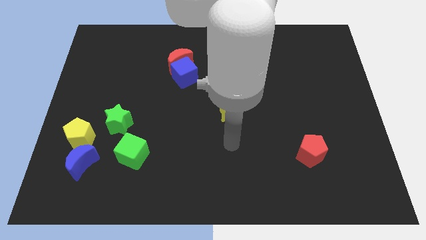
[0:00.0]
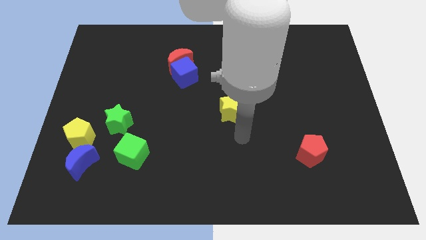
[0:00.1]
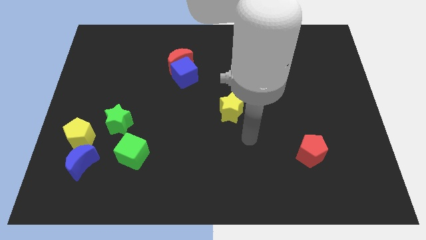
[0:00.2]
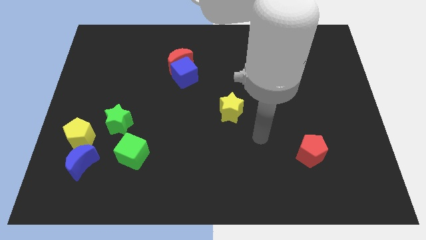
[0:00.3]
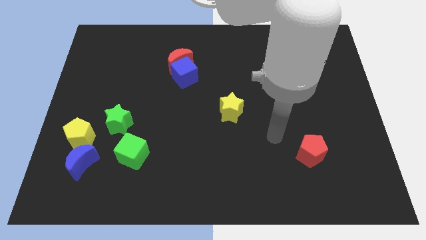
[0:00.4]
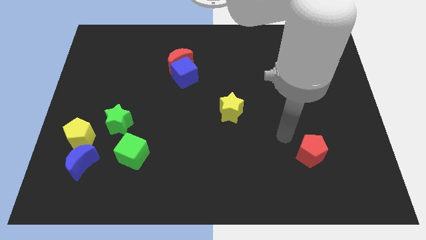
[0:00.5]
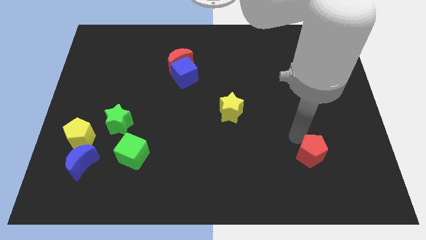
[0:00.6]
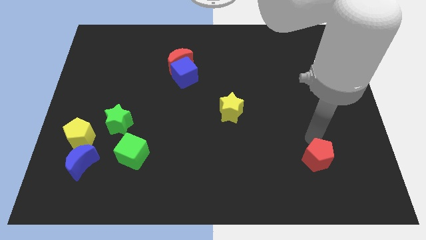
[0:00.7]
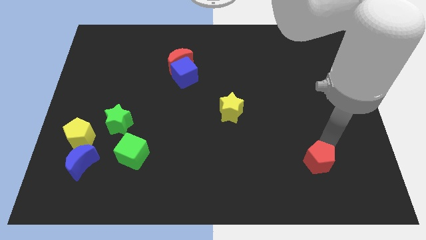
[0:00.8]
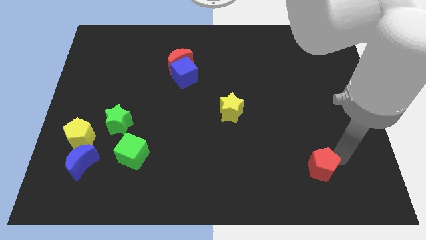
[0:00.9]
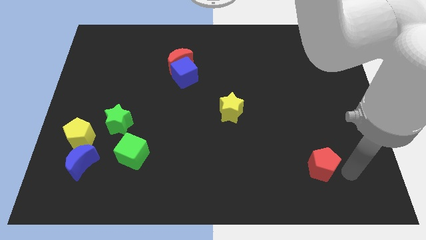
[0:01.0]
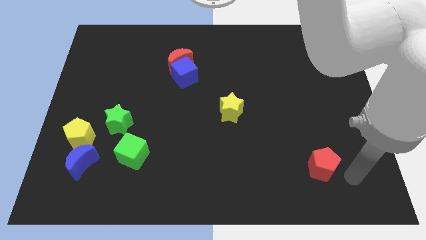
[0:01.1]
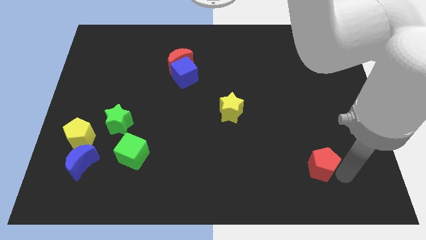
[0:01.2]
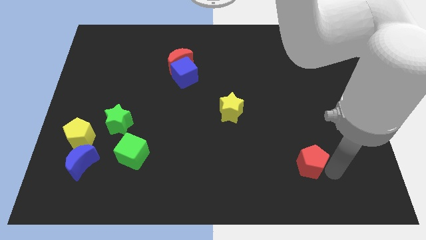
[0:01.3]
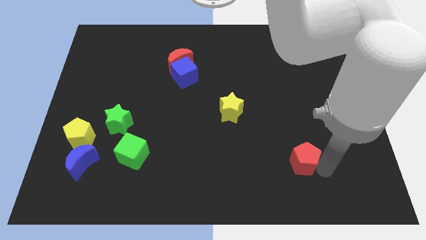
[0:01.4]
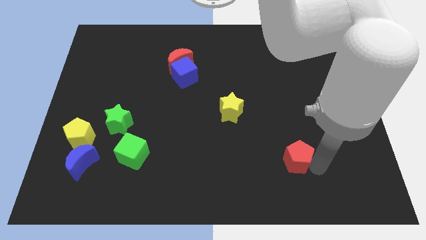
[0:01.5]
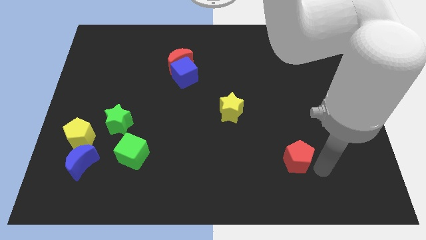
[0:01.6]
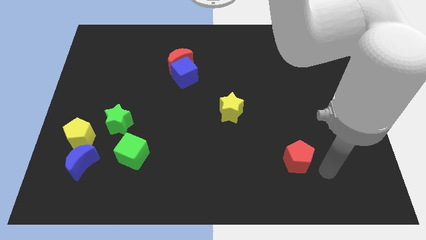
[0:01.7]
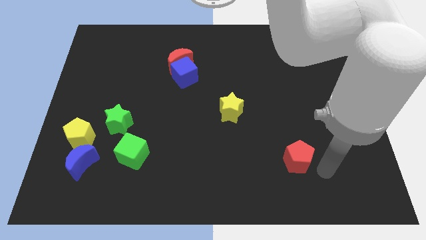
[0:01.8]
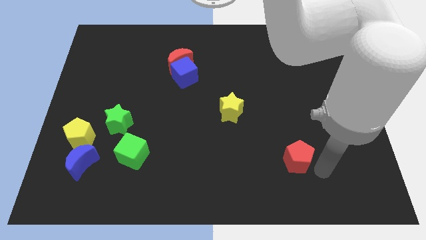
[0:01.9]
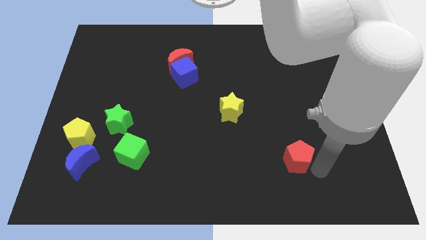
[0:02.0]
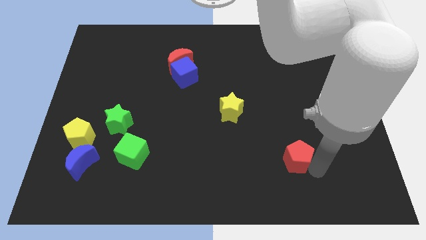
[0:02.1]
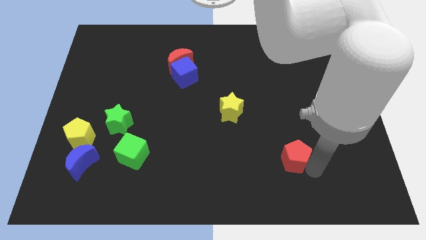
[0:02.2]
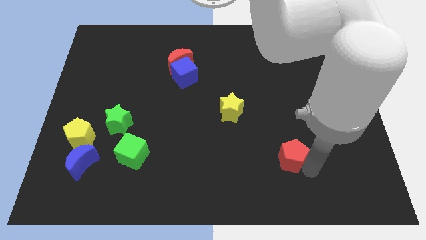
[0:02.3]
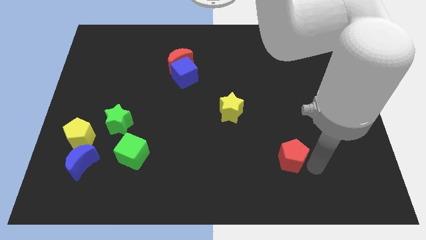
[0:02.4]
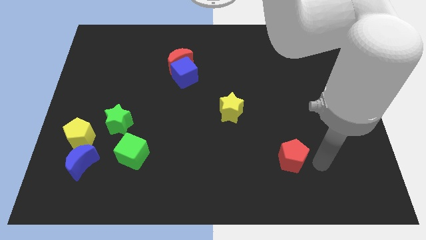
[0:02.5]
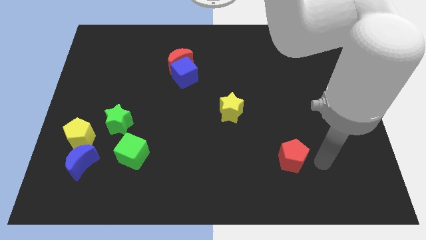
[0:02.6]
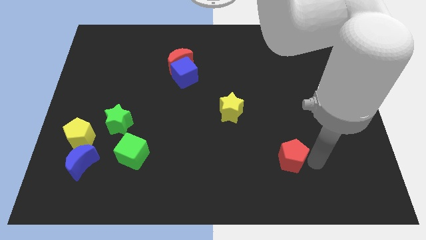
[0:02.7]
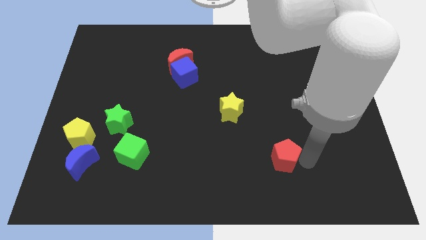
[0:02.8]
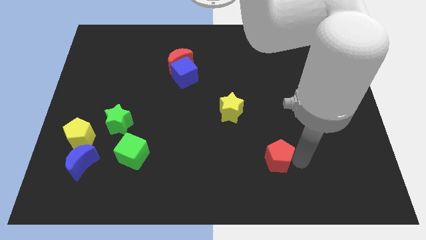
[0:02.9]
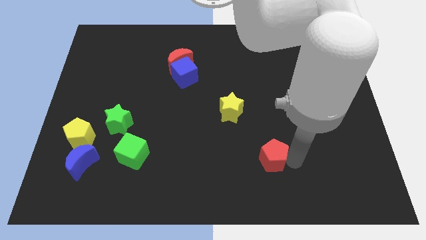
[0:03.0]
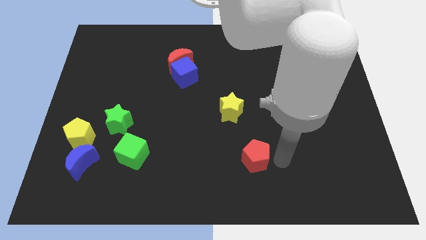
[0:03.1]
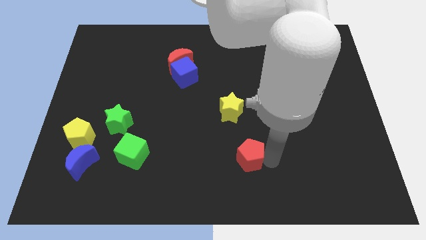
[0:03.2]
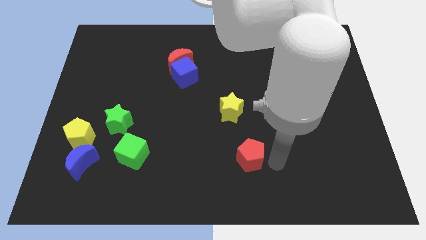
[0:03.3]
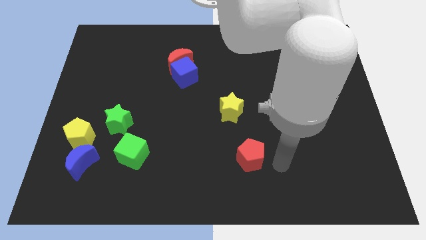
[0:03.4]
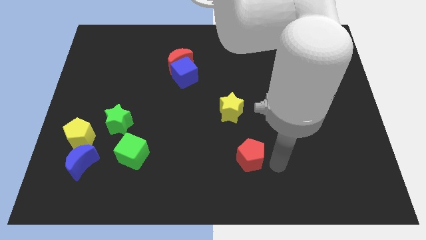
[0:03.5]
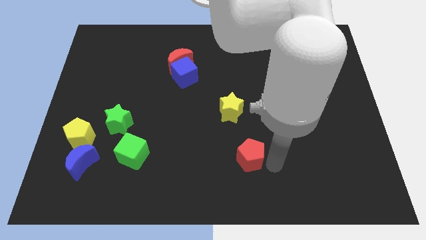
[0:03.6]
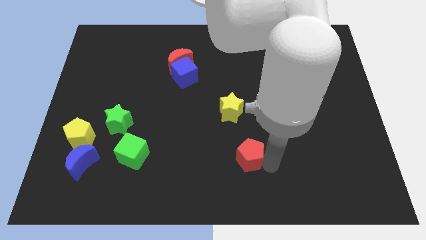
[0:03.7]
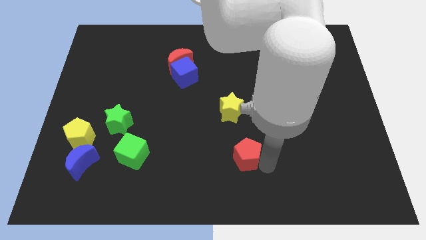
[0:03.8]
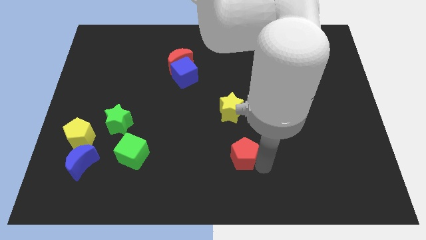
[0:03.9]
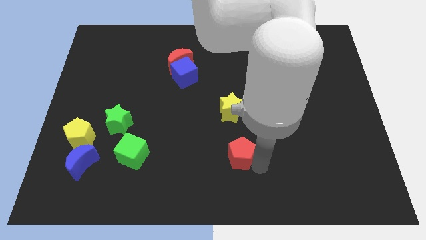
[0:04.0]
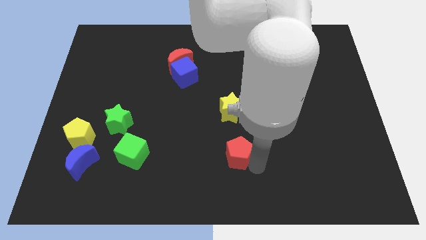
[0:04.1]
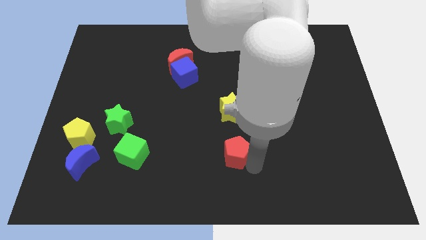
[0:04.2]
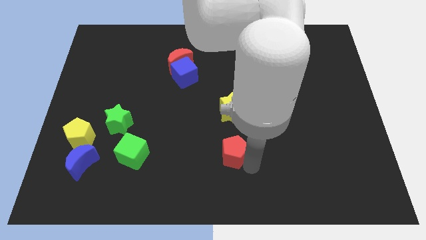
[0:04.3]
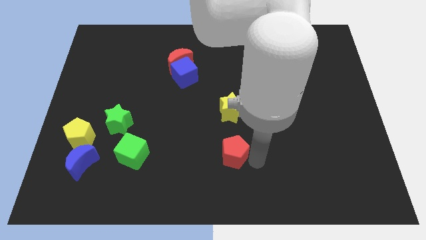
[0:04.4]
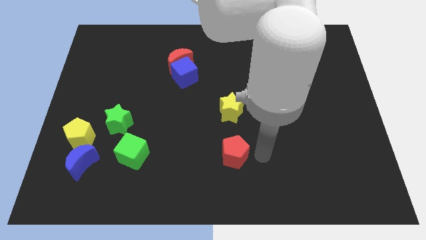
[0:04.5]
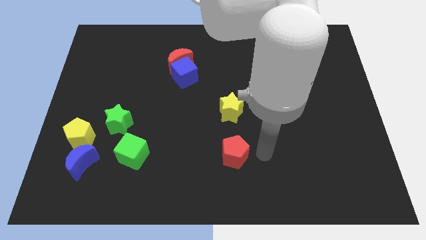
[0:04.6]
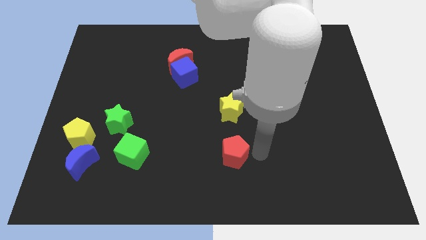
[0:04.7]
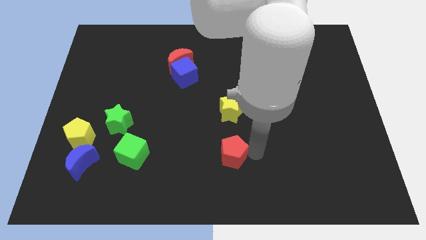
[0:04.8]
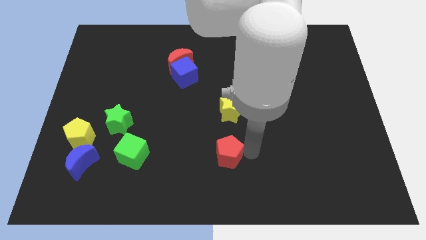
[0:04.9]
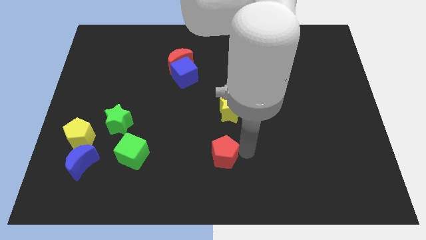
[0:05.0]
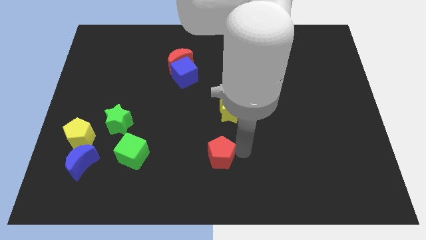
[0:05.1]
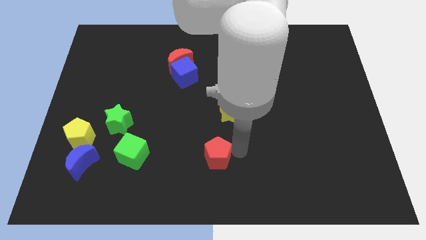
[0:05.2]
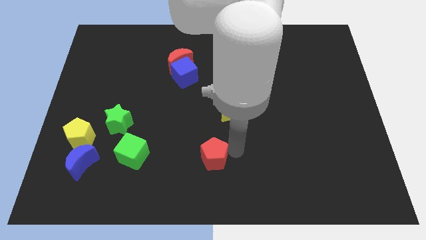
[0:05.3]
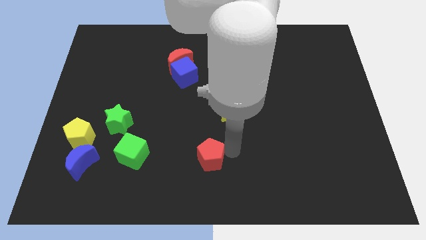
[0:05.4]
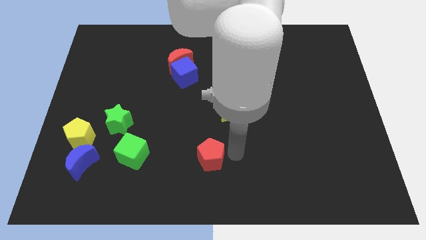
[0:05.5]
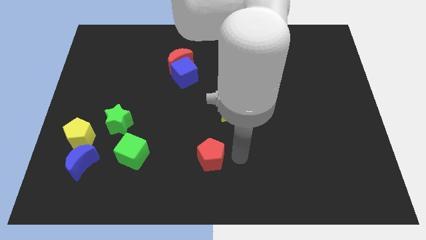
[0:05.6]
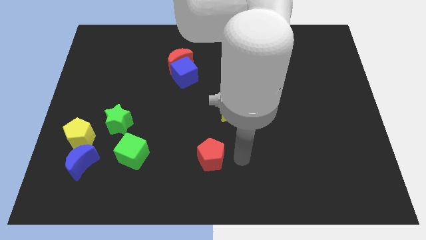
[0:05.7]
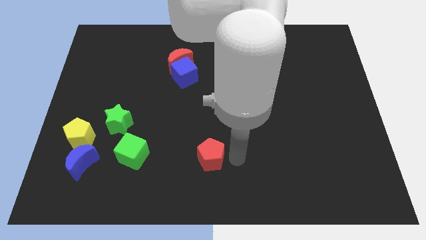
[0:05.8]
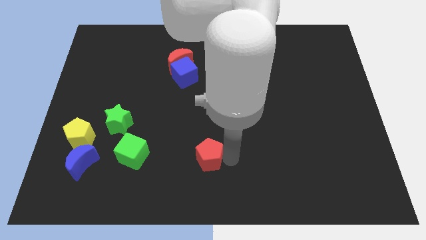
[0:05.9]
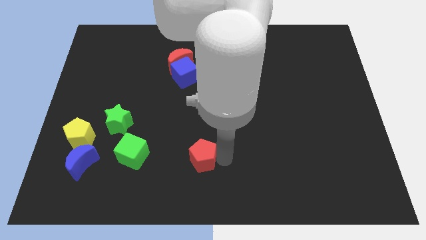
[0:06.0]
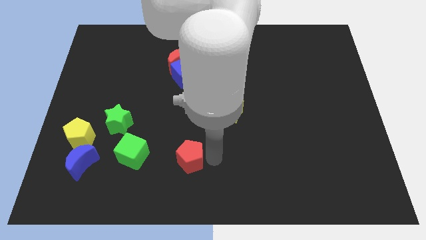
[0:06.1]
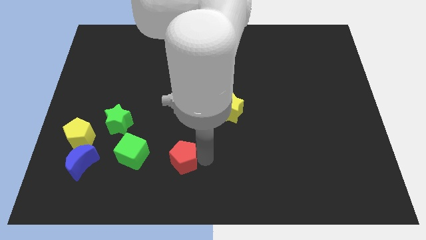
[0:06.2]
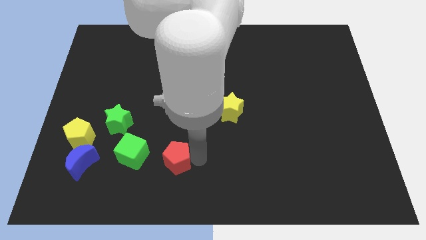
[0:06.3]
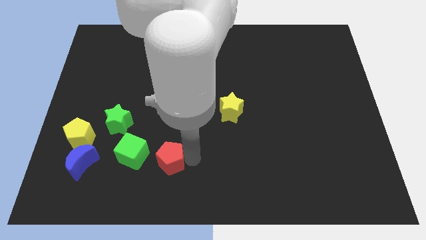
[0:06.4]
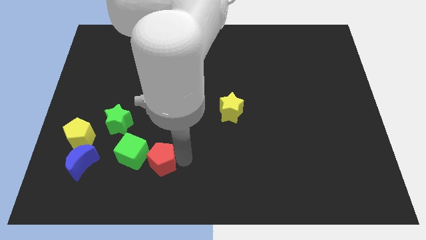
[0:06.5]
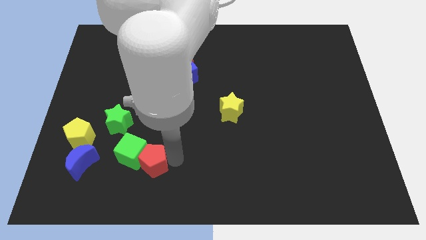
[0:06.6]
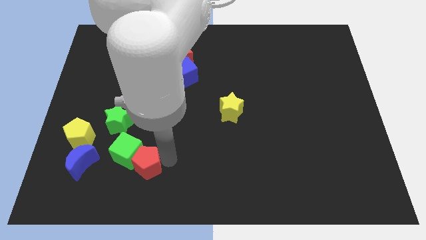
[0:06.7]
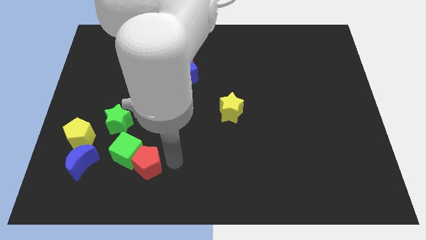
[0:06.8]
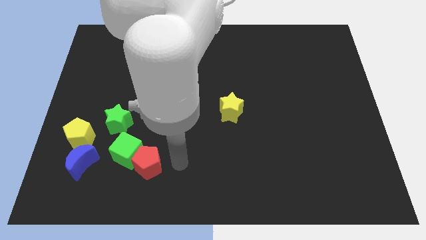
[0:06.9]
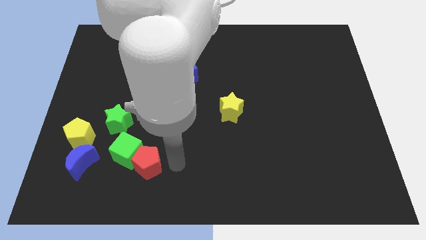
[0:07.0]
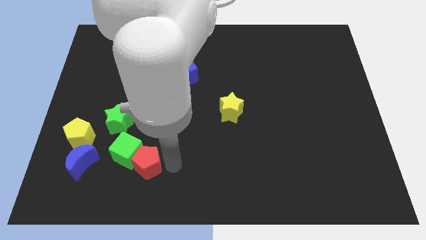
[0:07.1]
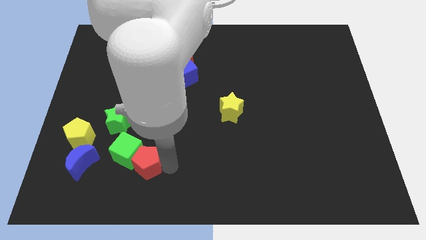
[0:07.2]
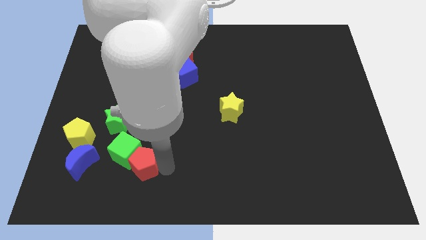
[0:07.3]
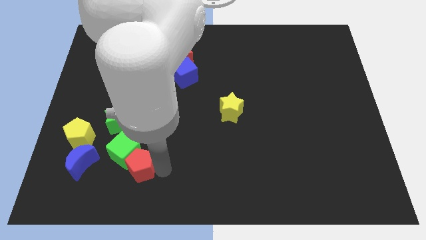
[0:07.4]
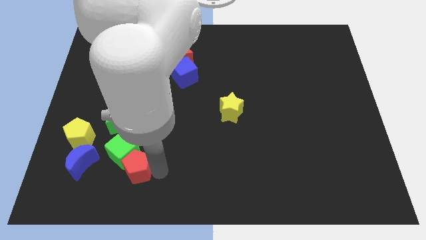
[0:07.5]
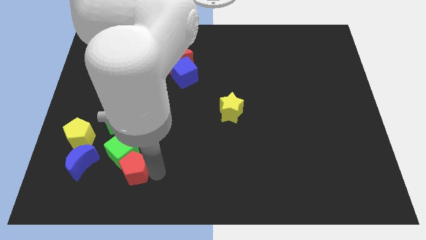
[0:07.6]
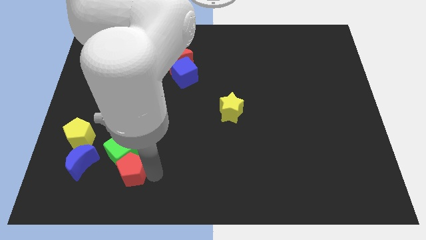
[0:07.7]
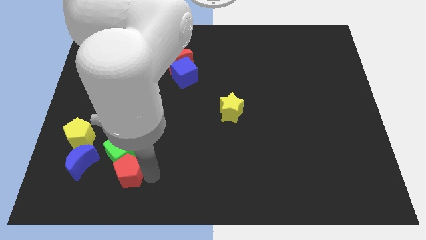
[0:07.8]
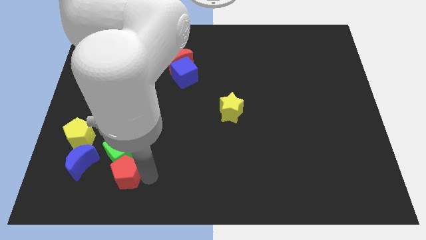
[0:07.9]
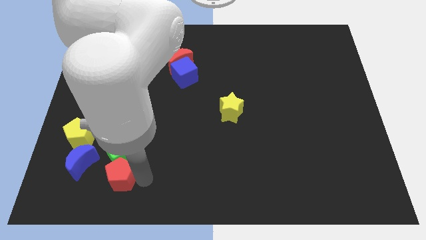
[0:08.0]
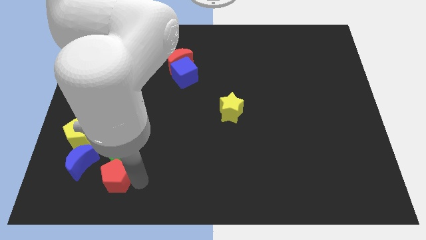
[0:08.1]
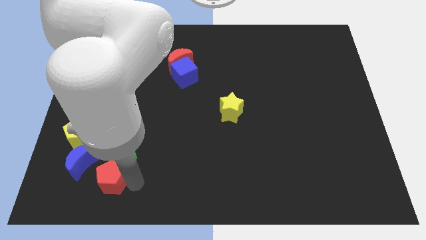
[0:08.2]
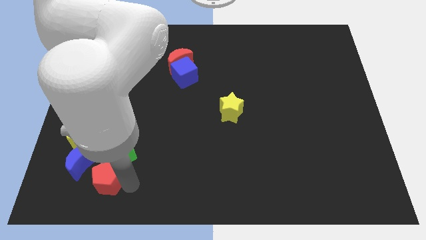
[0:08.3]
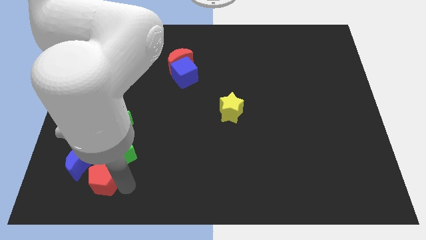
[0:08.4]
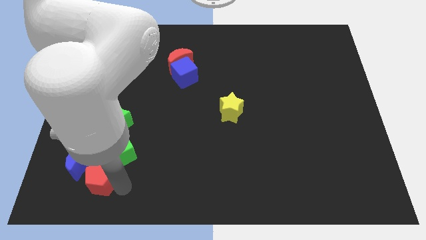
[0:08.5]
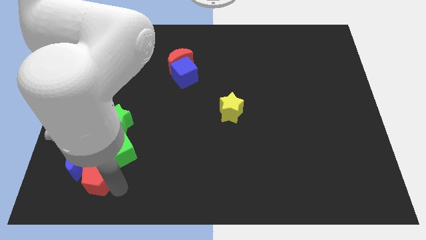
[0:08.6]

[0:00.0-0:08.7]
move the red pentagon next to the blue moon
